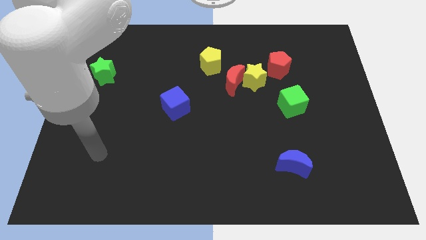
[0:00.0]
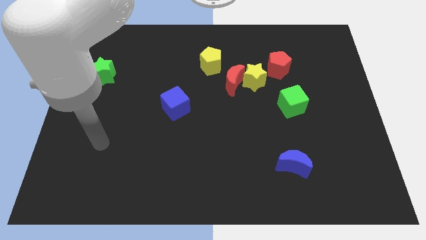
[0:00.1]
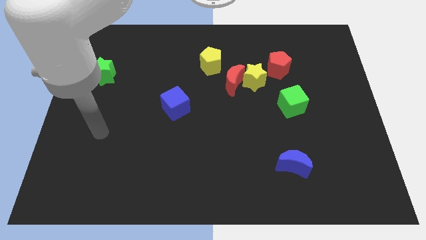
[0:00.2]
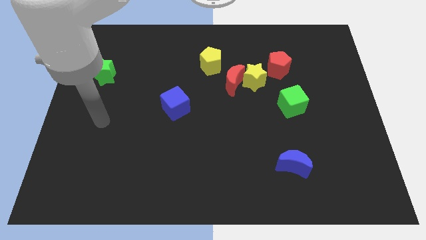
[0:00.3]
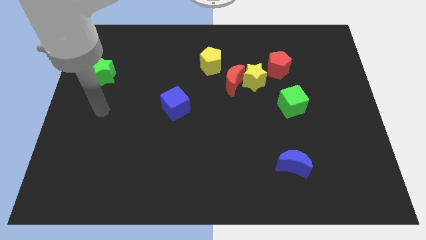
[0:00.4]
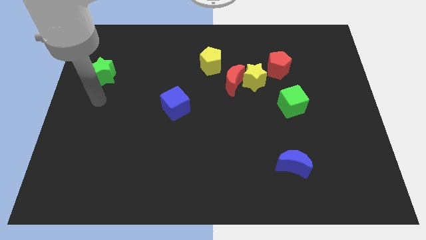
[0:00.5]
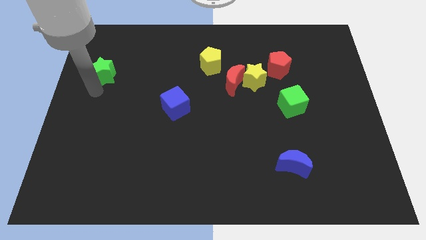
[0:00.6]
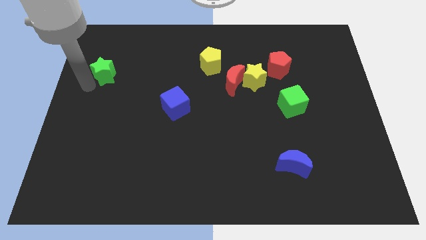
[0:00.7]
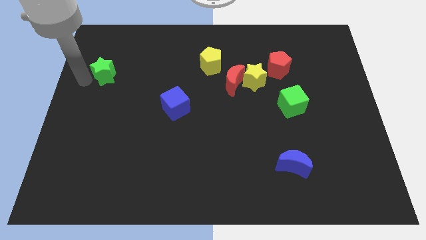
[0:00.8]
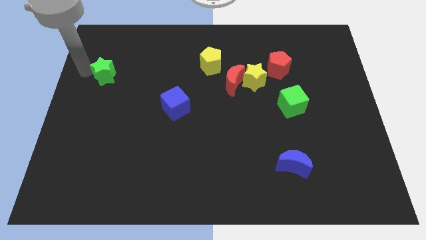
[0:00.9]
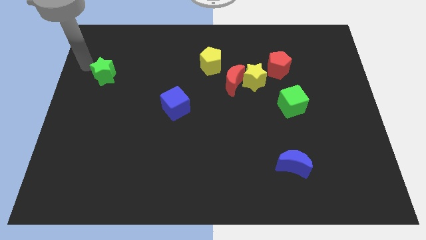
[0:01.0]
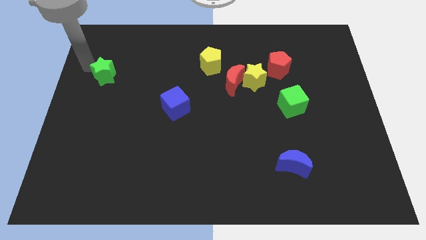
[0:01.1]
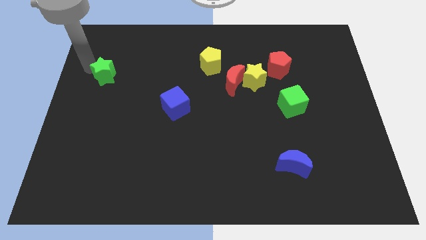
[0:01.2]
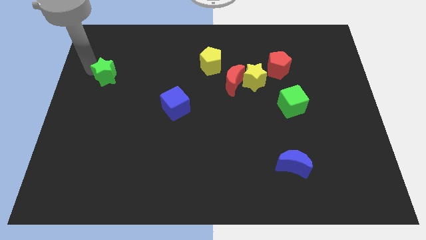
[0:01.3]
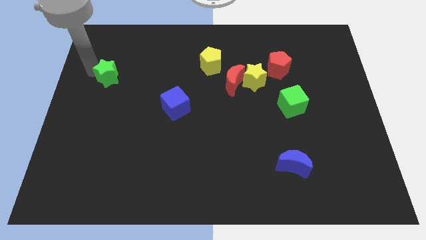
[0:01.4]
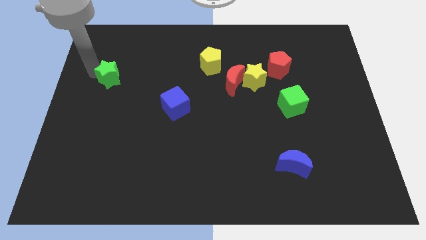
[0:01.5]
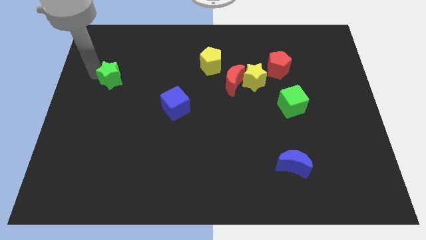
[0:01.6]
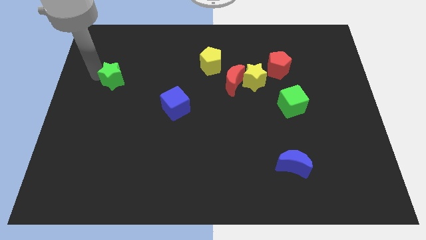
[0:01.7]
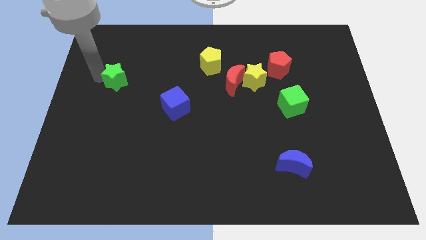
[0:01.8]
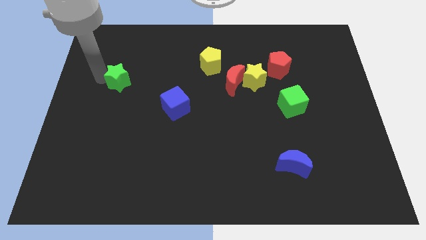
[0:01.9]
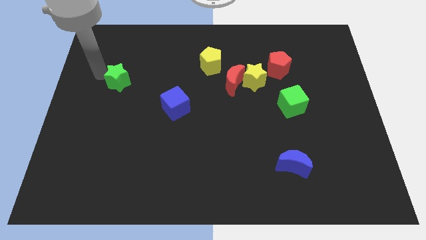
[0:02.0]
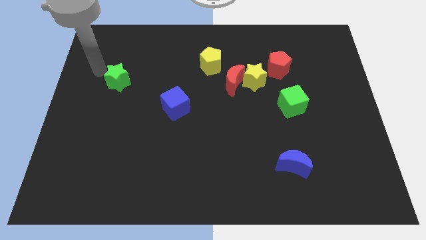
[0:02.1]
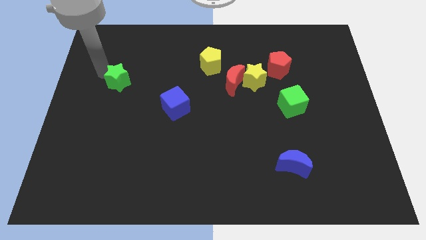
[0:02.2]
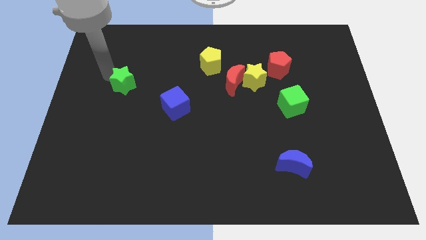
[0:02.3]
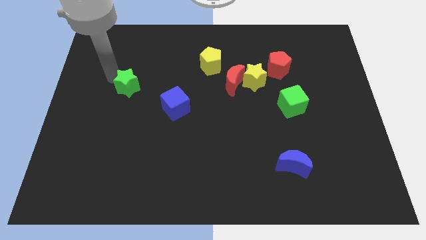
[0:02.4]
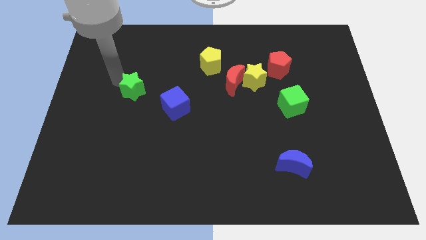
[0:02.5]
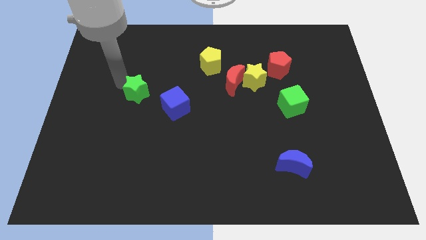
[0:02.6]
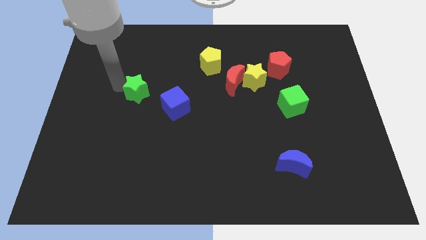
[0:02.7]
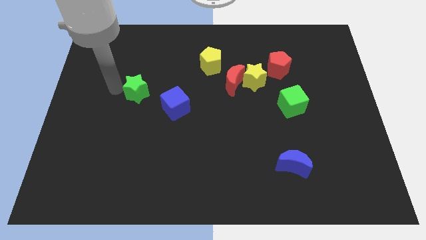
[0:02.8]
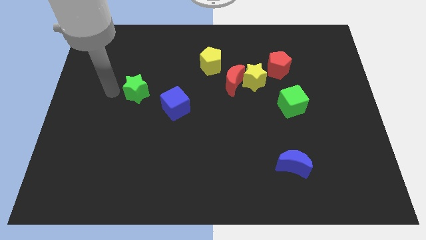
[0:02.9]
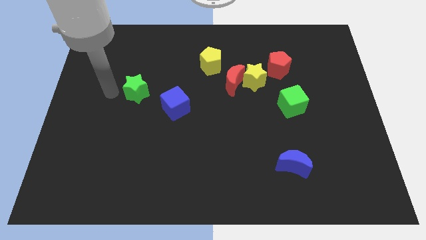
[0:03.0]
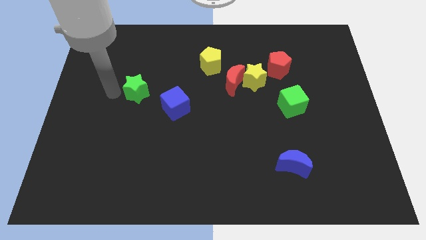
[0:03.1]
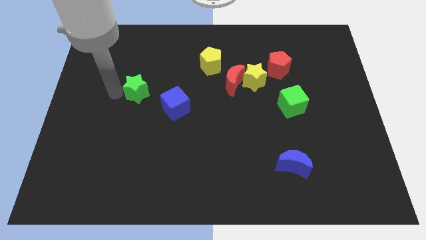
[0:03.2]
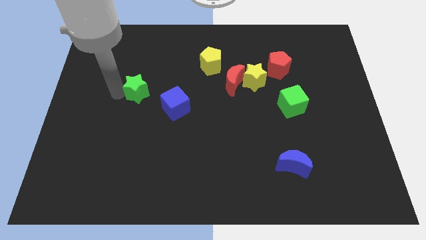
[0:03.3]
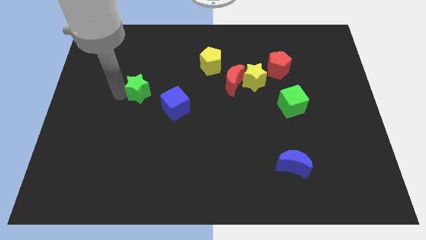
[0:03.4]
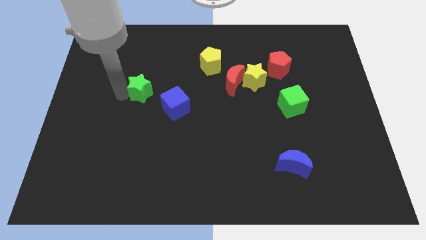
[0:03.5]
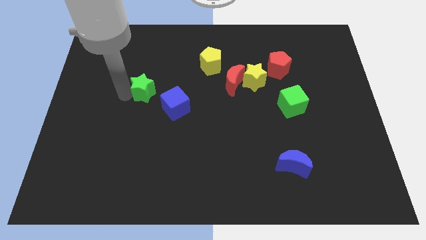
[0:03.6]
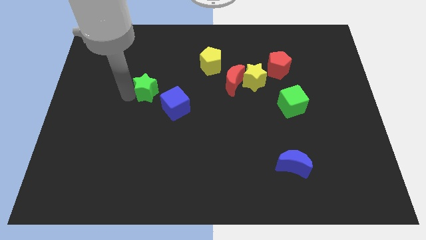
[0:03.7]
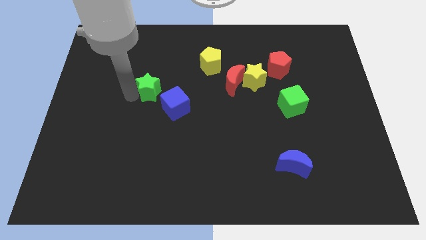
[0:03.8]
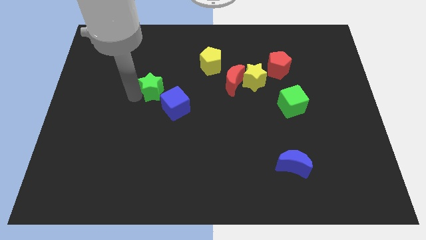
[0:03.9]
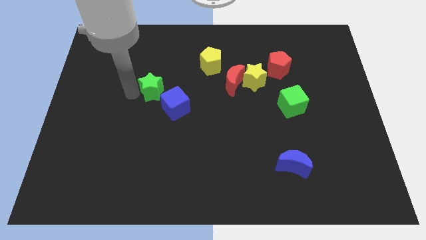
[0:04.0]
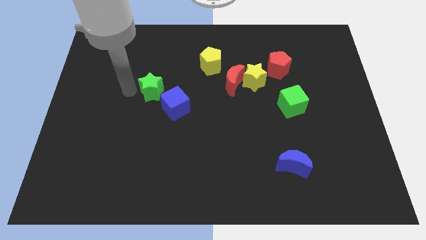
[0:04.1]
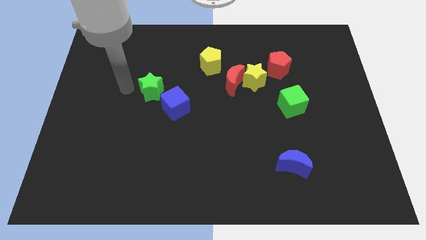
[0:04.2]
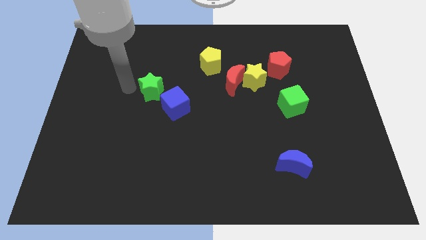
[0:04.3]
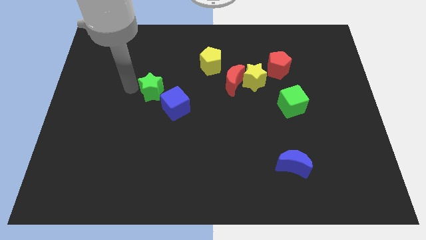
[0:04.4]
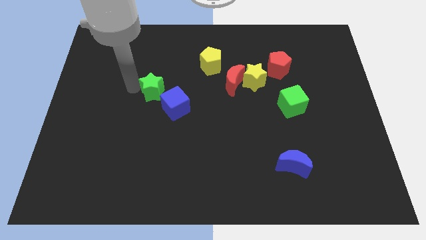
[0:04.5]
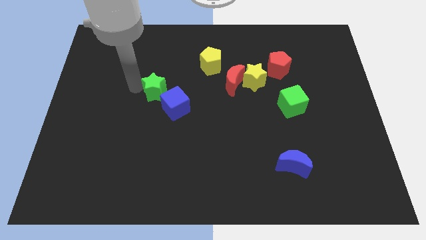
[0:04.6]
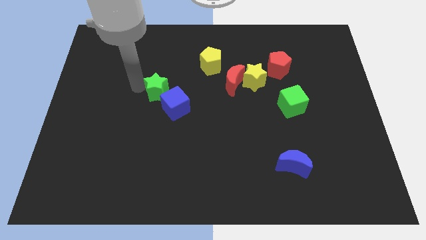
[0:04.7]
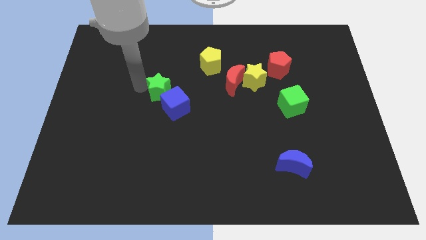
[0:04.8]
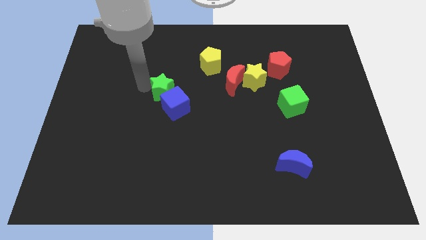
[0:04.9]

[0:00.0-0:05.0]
put the green star to the middle

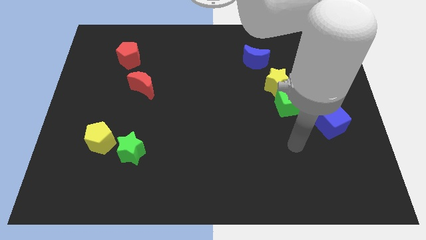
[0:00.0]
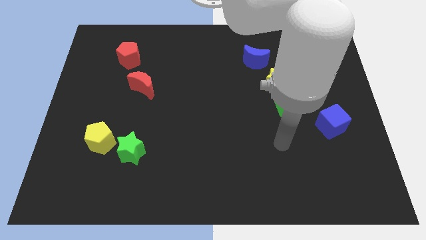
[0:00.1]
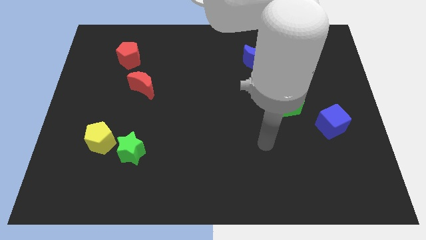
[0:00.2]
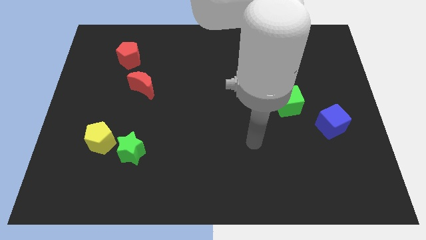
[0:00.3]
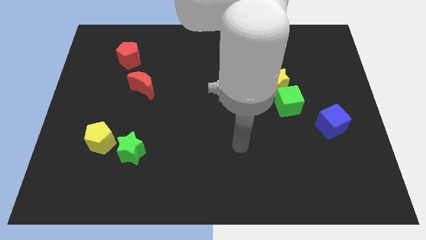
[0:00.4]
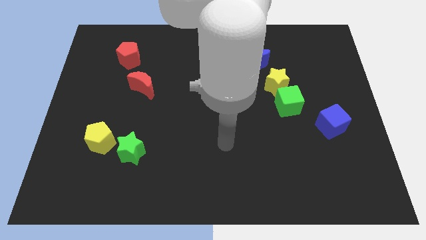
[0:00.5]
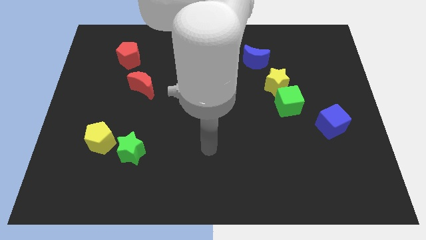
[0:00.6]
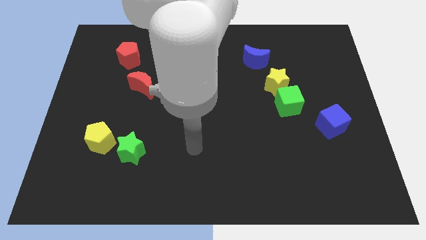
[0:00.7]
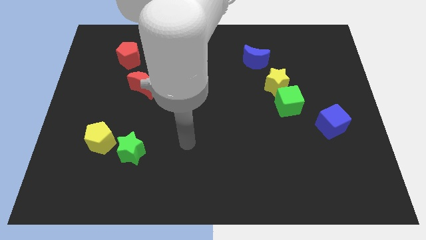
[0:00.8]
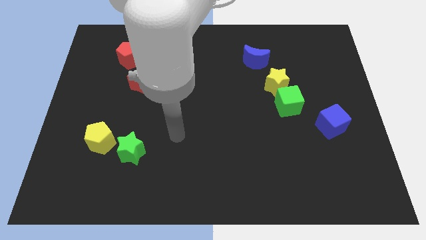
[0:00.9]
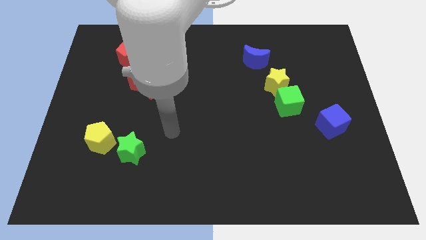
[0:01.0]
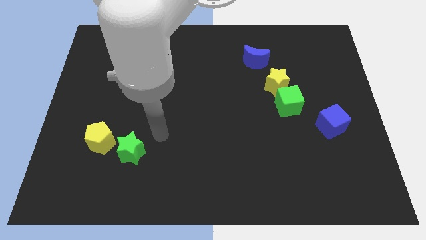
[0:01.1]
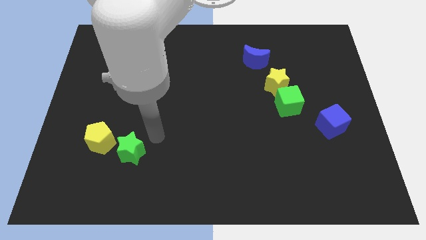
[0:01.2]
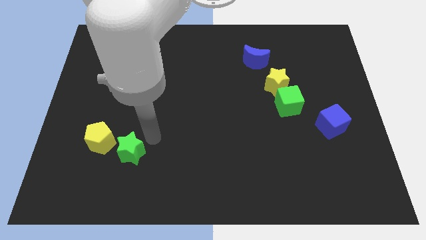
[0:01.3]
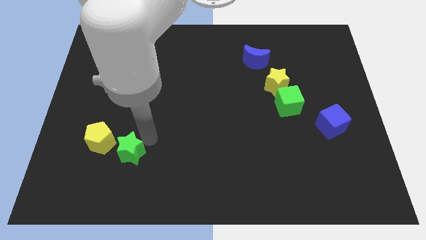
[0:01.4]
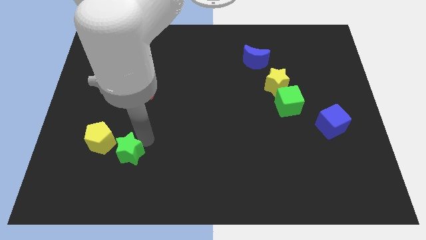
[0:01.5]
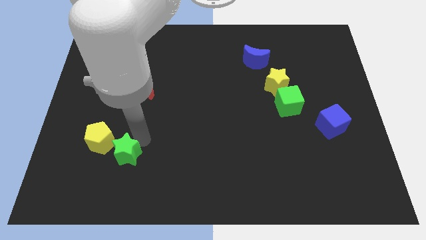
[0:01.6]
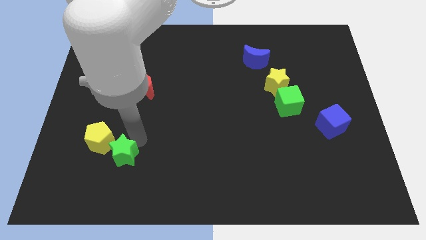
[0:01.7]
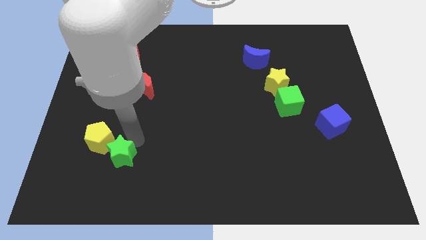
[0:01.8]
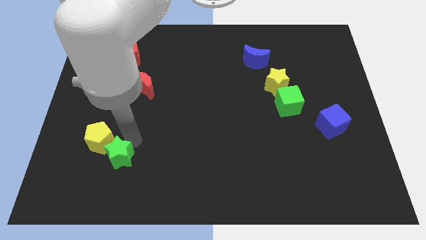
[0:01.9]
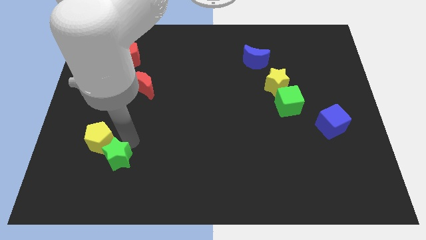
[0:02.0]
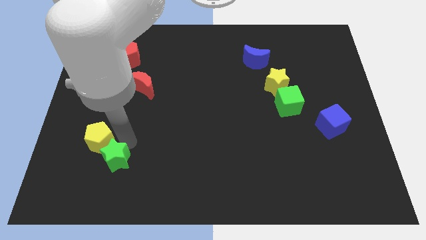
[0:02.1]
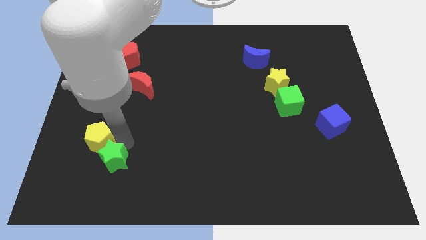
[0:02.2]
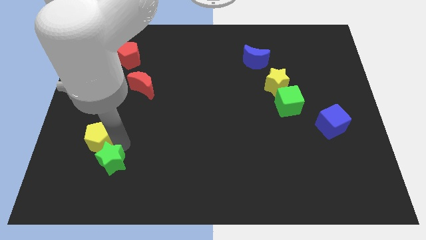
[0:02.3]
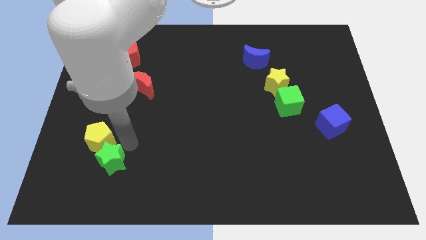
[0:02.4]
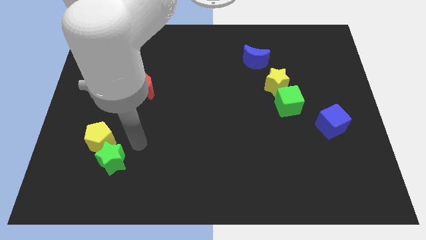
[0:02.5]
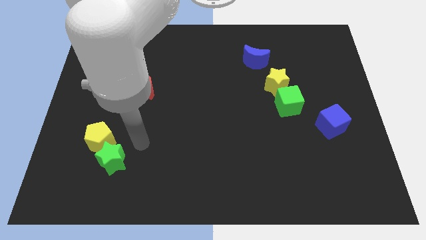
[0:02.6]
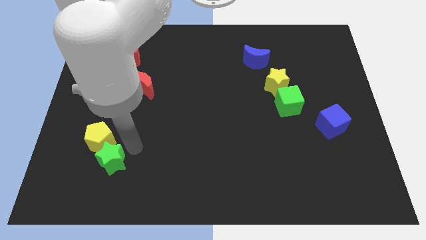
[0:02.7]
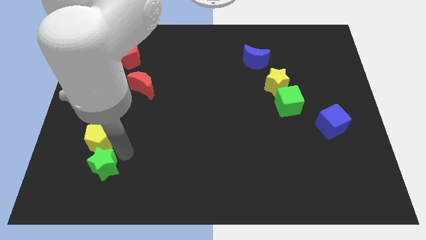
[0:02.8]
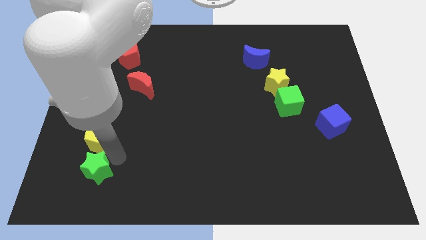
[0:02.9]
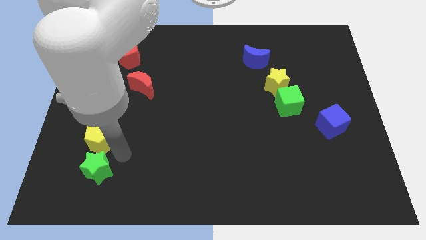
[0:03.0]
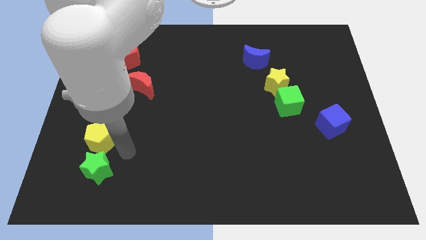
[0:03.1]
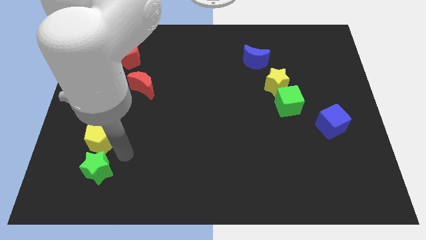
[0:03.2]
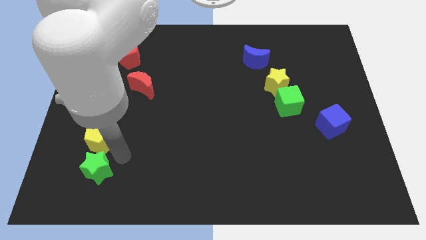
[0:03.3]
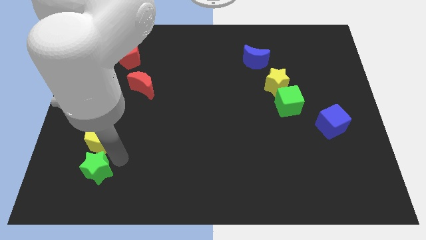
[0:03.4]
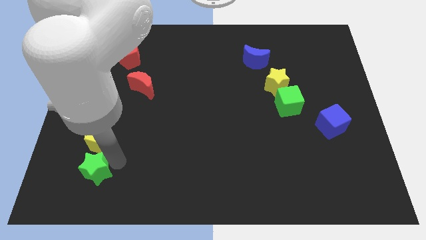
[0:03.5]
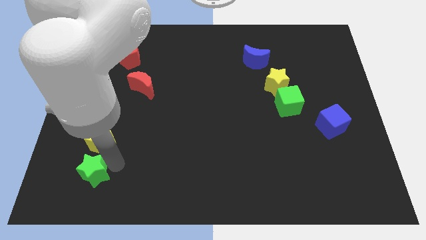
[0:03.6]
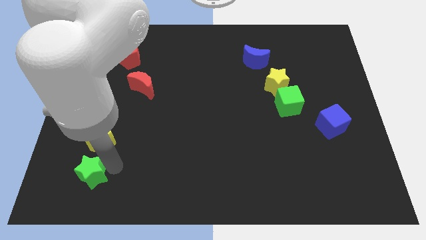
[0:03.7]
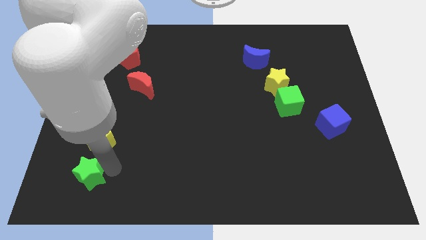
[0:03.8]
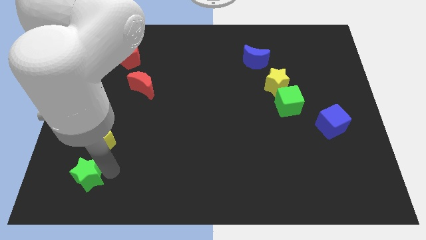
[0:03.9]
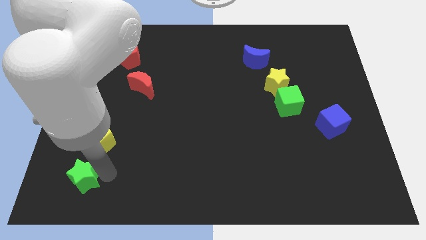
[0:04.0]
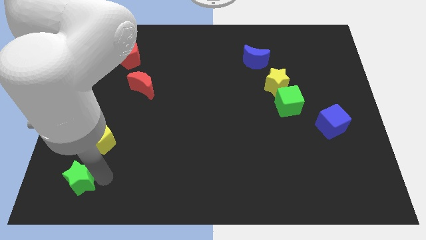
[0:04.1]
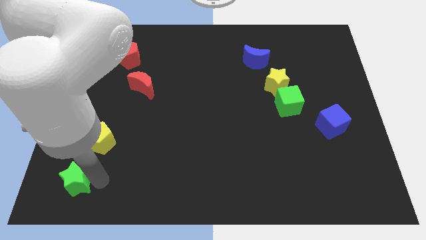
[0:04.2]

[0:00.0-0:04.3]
slide the green star to the lower left corner
